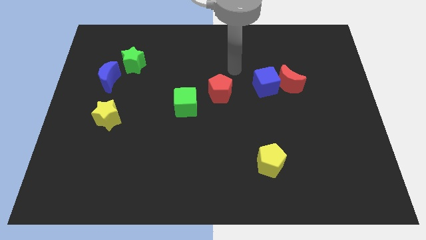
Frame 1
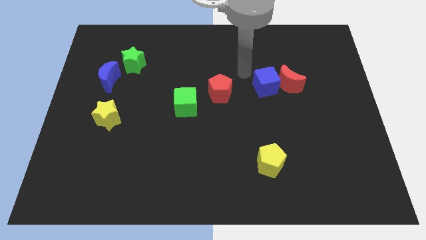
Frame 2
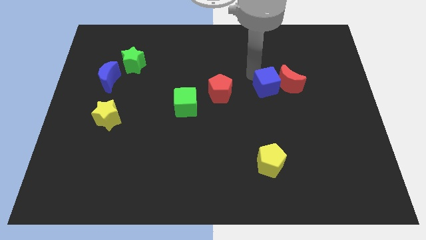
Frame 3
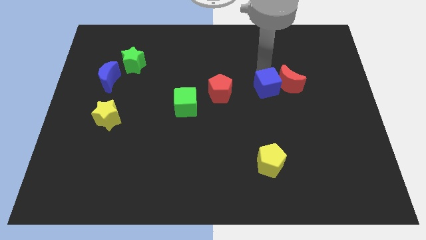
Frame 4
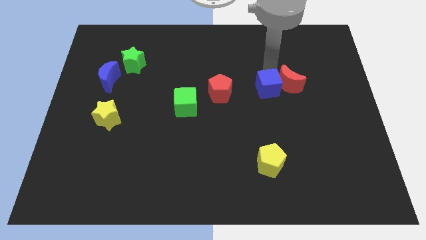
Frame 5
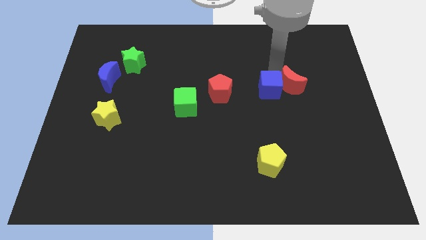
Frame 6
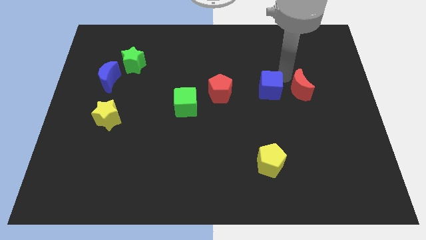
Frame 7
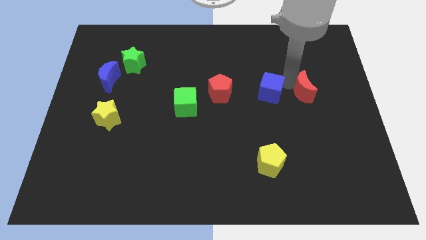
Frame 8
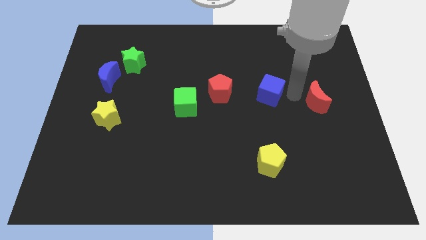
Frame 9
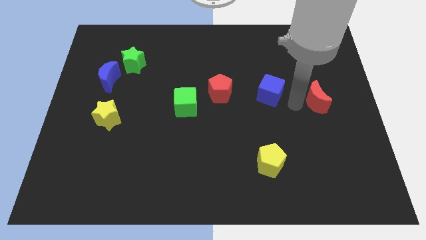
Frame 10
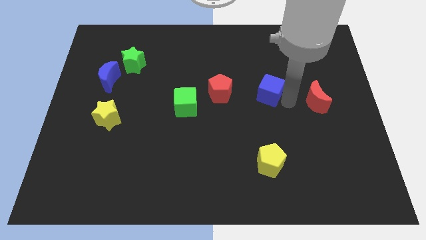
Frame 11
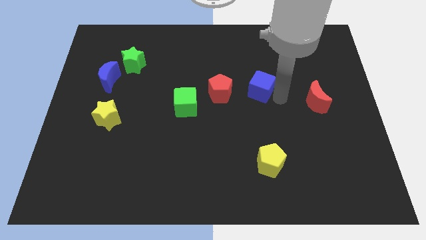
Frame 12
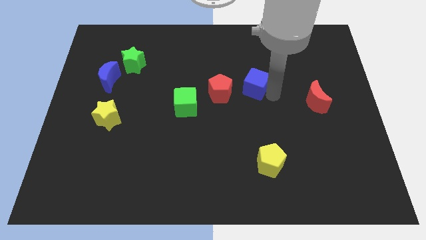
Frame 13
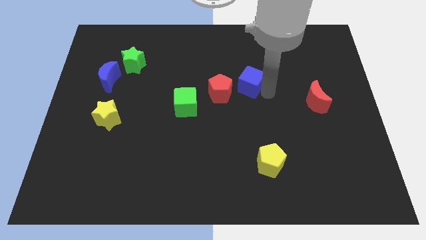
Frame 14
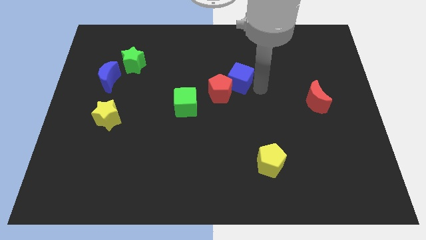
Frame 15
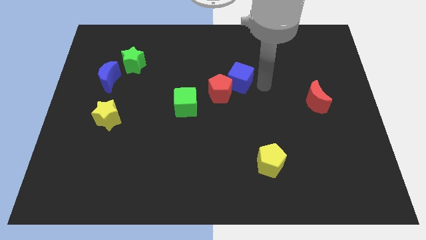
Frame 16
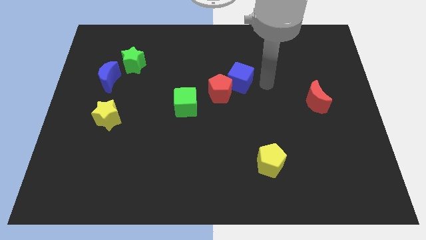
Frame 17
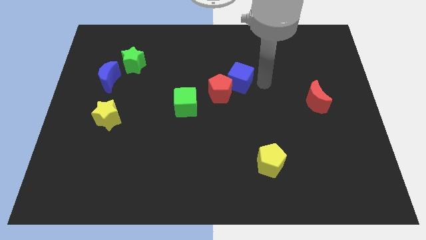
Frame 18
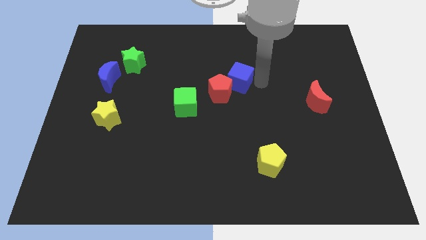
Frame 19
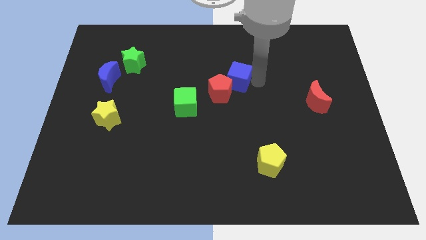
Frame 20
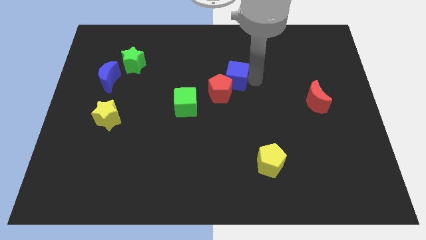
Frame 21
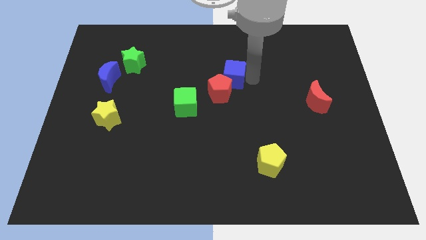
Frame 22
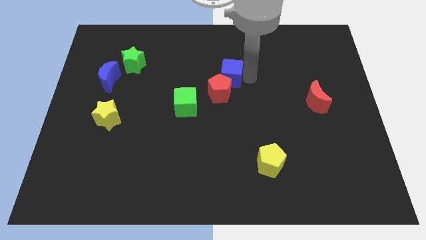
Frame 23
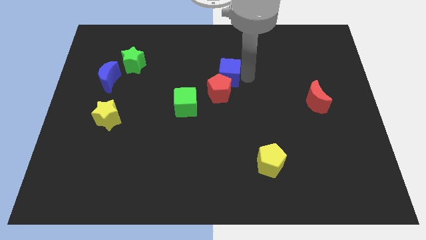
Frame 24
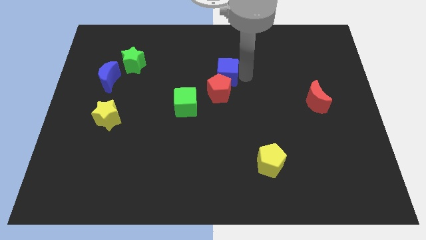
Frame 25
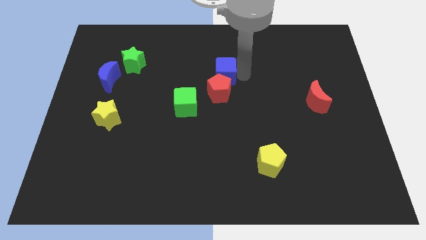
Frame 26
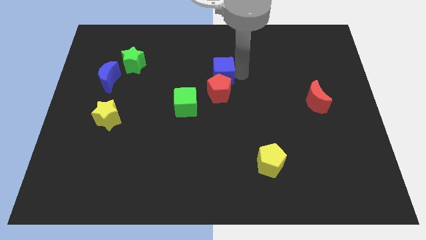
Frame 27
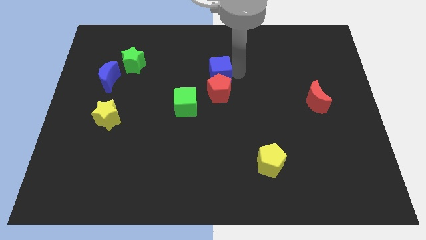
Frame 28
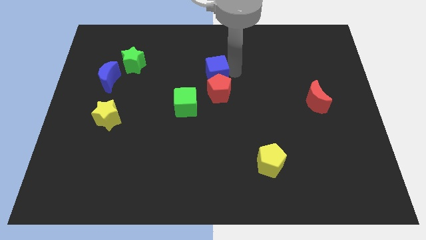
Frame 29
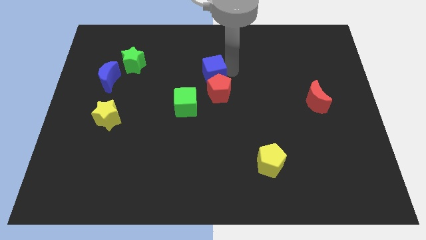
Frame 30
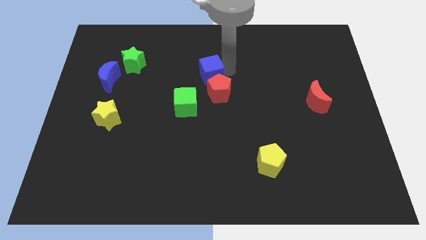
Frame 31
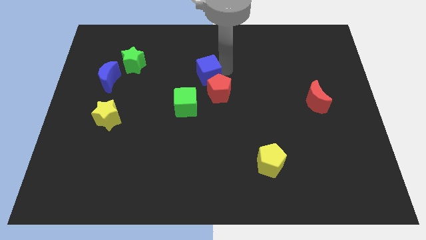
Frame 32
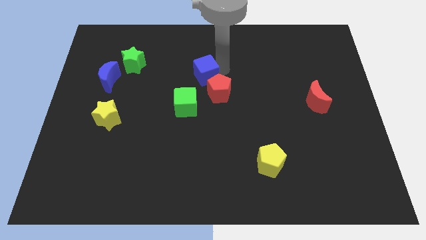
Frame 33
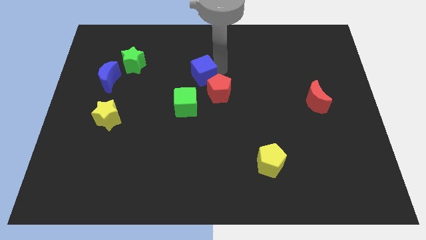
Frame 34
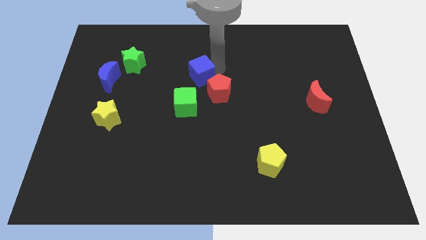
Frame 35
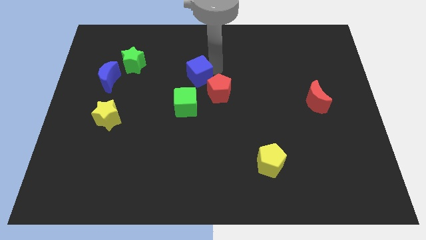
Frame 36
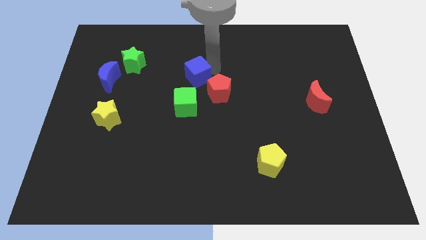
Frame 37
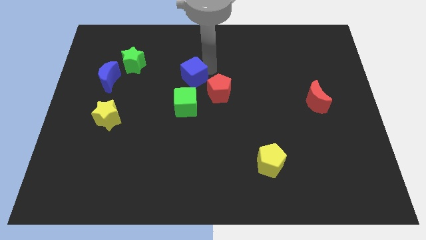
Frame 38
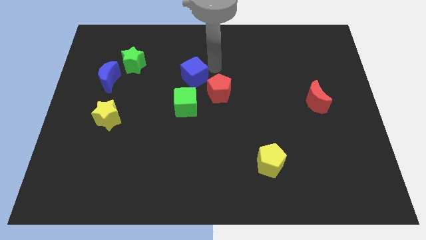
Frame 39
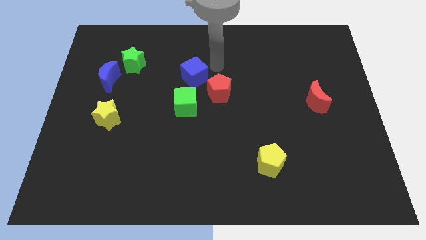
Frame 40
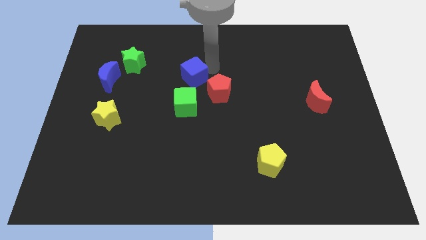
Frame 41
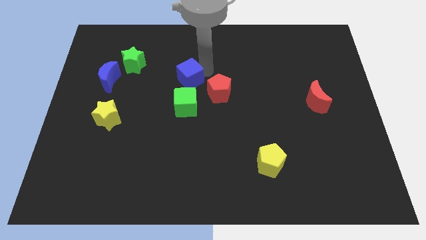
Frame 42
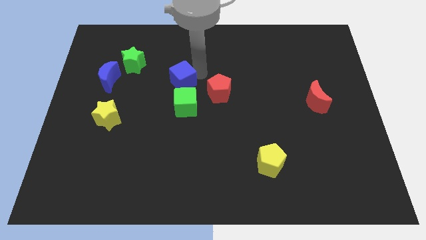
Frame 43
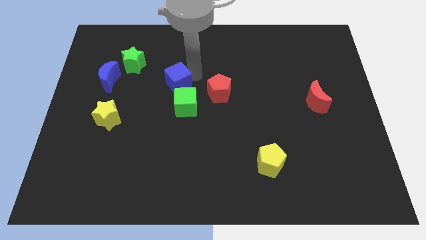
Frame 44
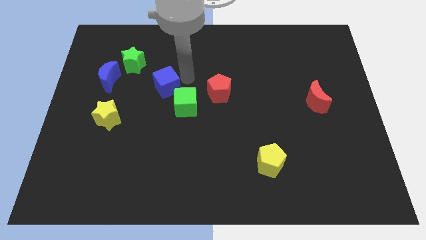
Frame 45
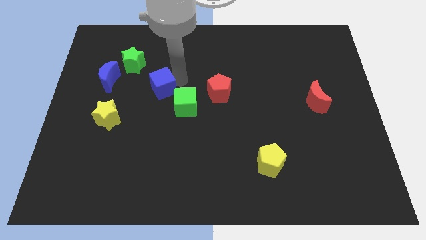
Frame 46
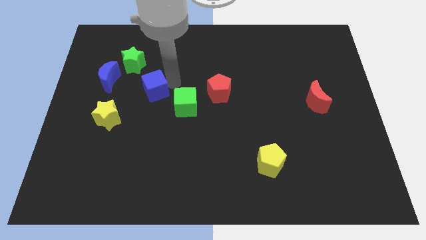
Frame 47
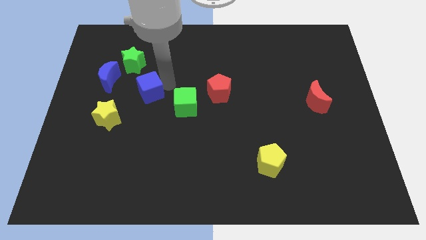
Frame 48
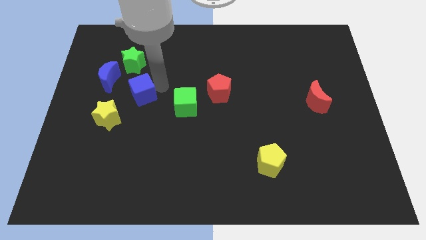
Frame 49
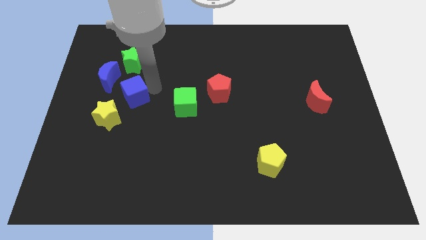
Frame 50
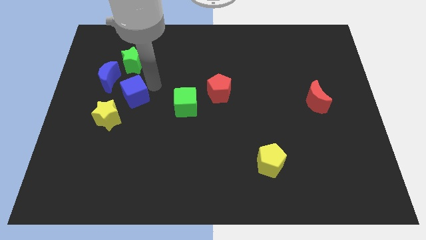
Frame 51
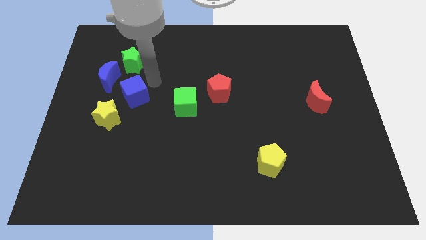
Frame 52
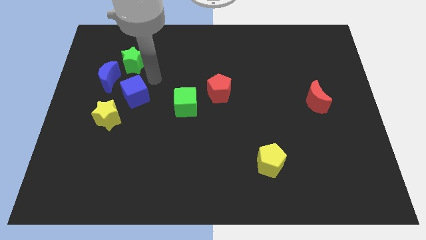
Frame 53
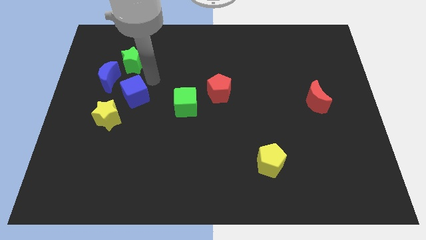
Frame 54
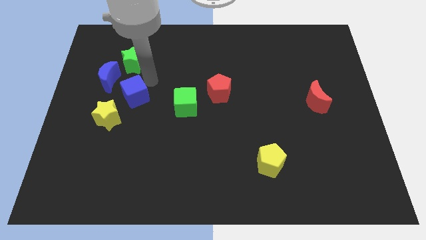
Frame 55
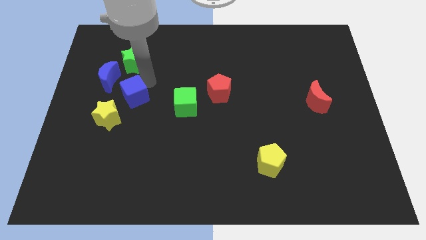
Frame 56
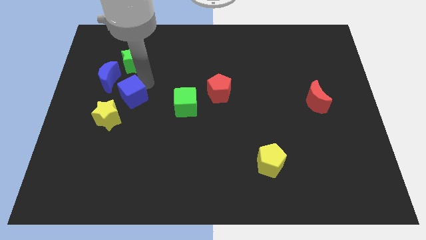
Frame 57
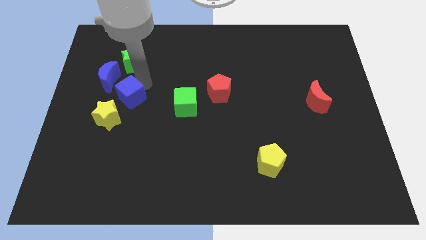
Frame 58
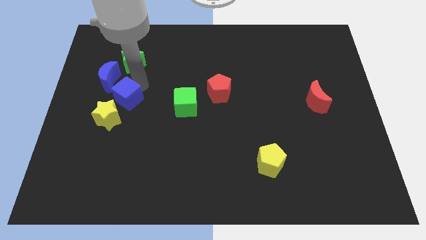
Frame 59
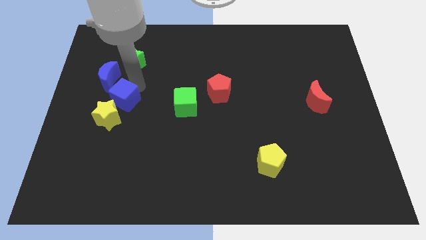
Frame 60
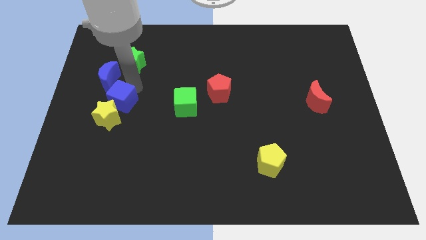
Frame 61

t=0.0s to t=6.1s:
slide the blue cube towards the yellow star

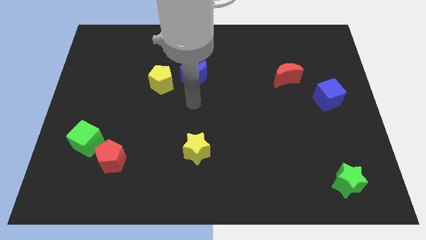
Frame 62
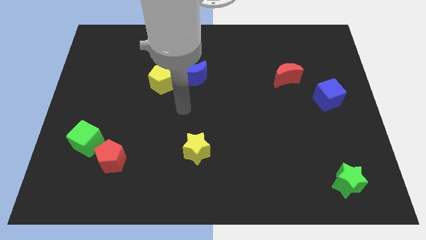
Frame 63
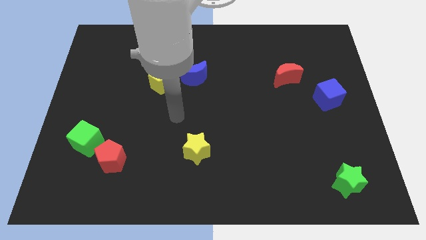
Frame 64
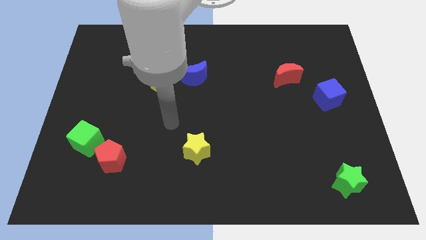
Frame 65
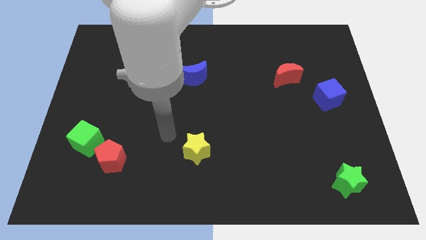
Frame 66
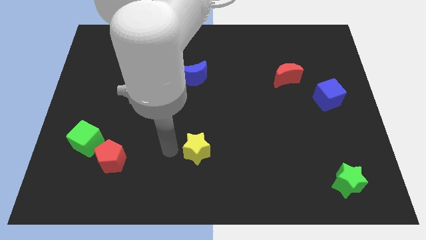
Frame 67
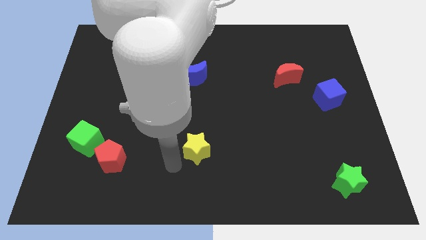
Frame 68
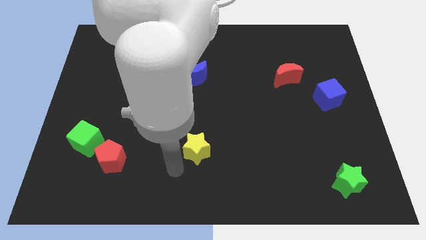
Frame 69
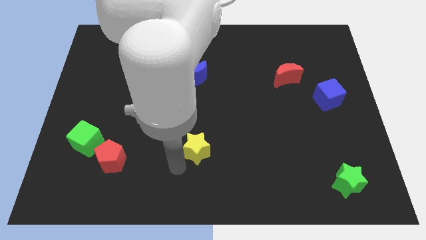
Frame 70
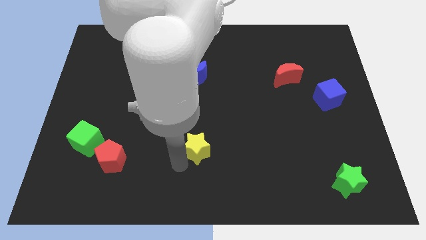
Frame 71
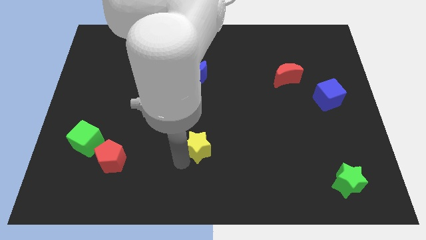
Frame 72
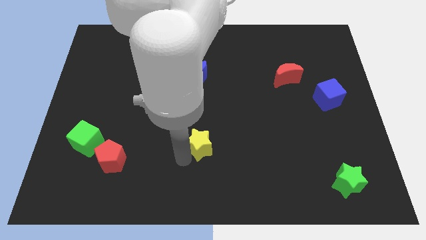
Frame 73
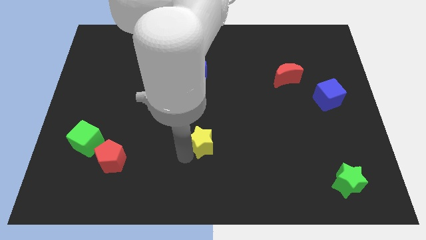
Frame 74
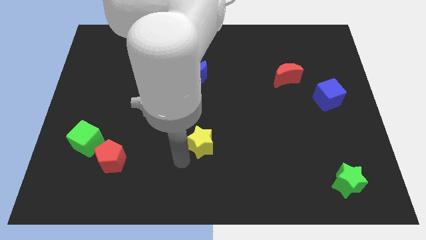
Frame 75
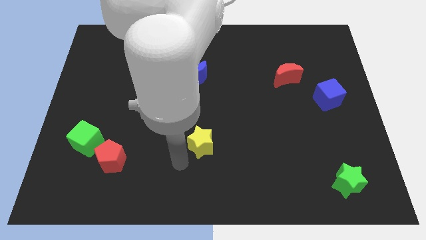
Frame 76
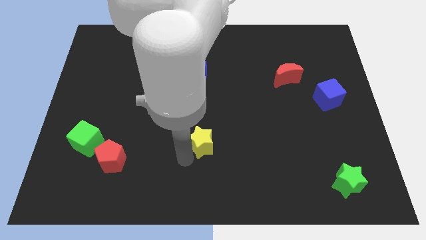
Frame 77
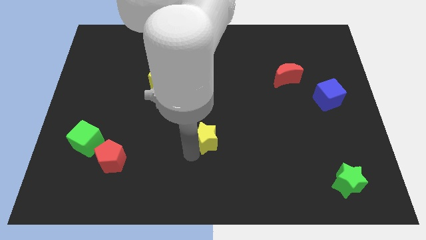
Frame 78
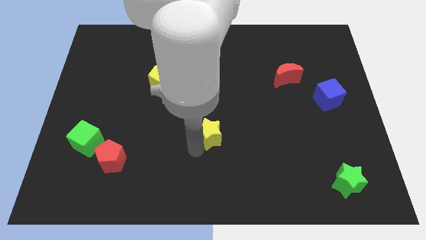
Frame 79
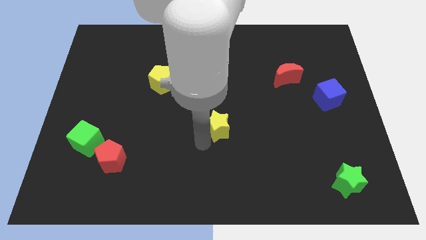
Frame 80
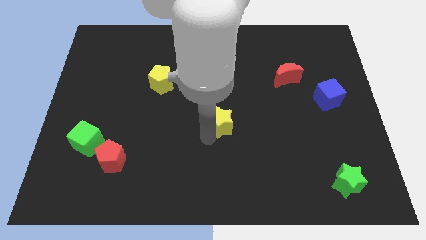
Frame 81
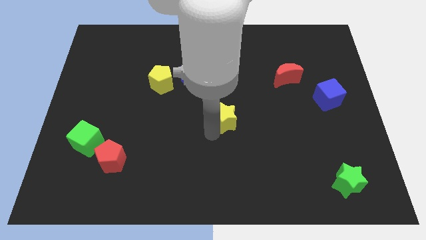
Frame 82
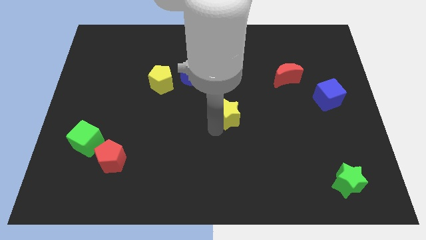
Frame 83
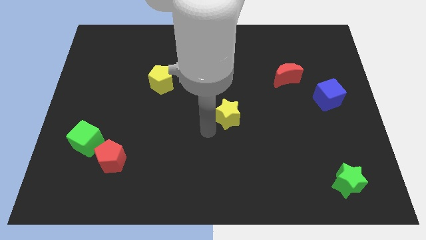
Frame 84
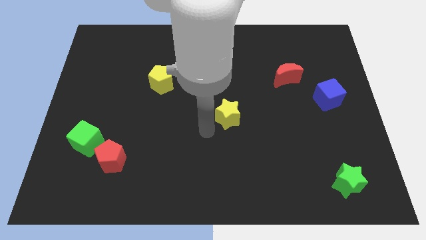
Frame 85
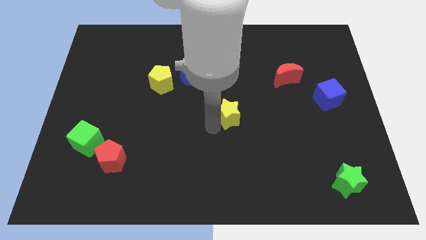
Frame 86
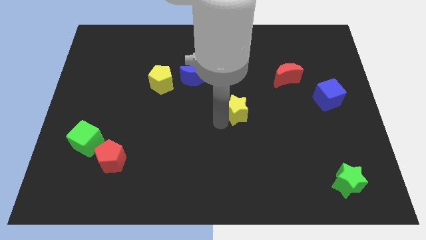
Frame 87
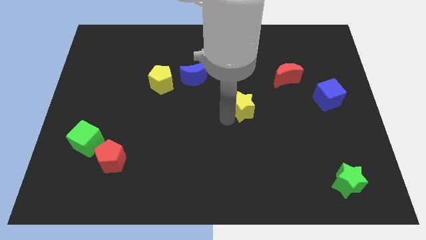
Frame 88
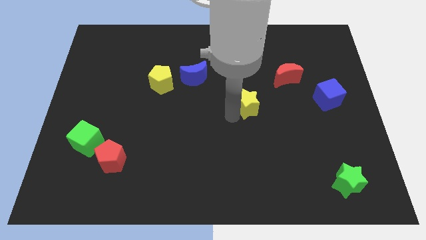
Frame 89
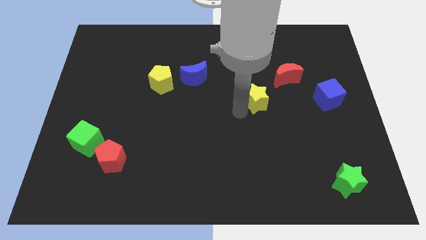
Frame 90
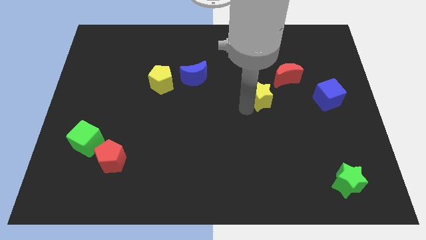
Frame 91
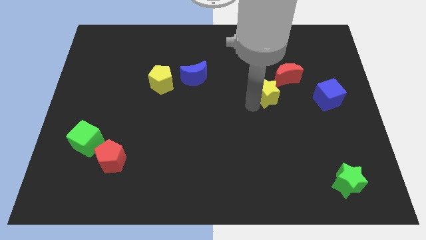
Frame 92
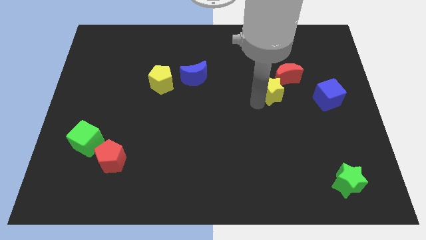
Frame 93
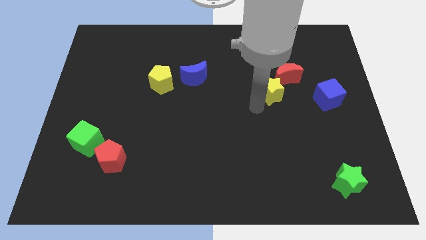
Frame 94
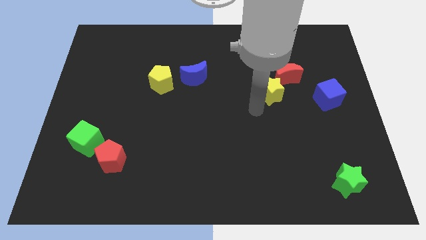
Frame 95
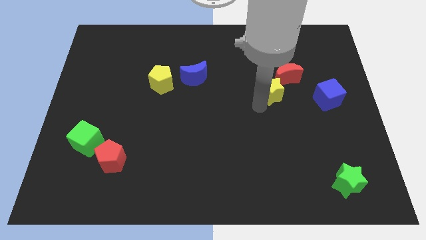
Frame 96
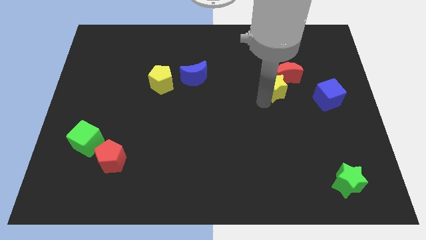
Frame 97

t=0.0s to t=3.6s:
slide the yellow star towards the red moon
